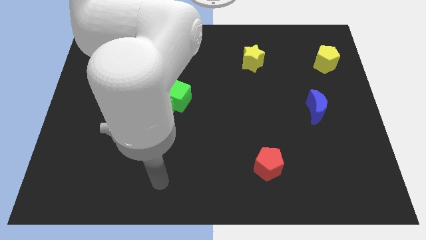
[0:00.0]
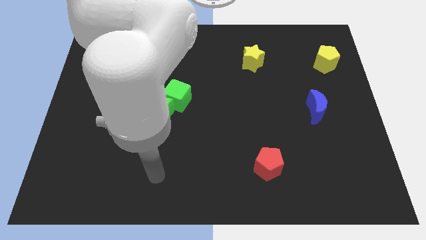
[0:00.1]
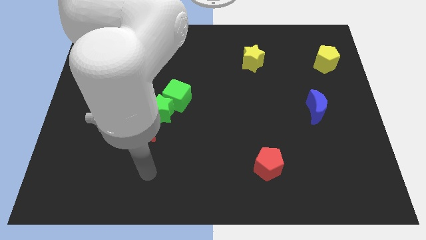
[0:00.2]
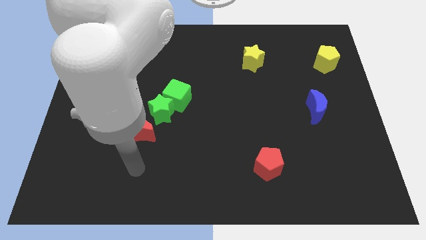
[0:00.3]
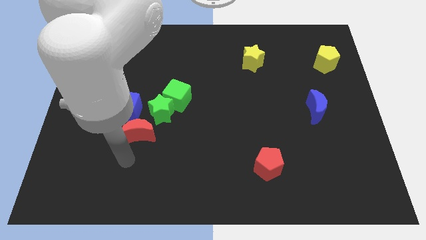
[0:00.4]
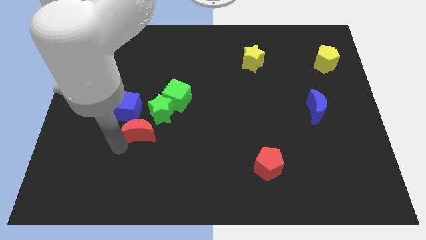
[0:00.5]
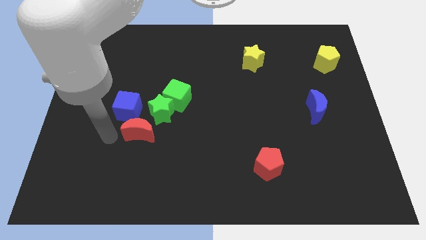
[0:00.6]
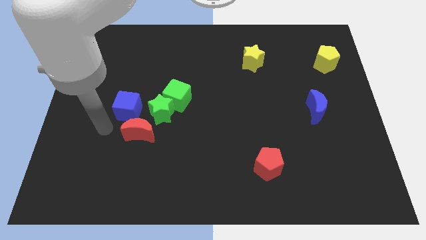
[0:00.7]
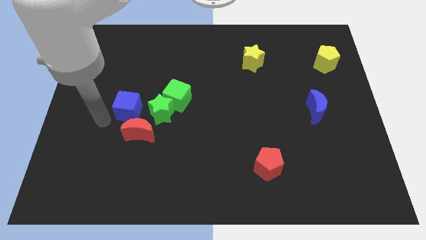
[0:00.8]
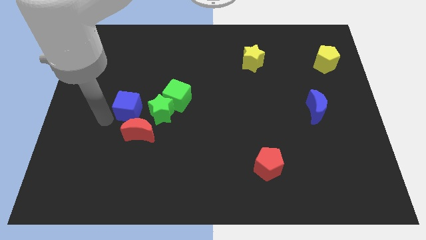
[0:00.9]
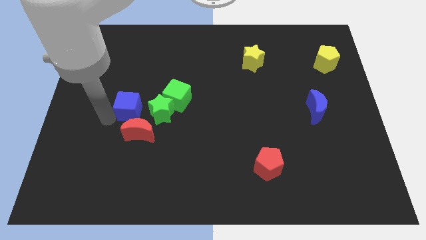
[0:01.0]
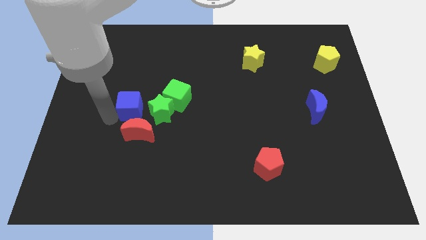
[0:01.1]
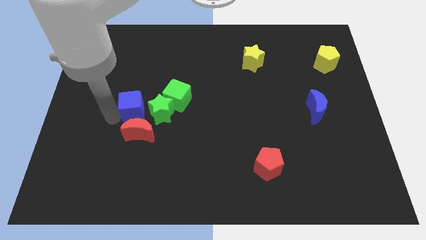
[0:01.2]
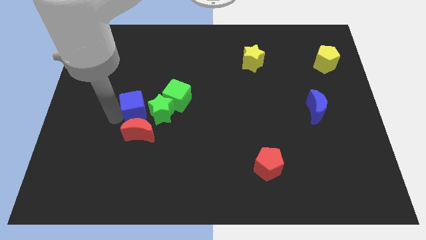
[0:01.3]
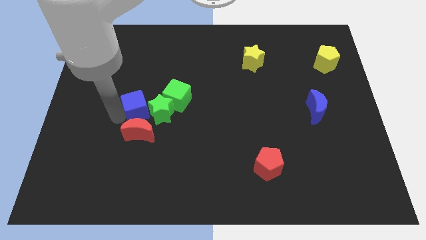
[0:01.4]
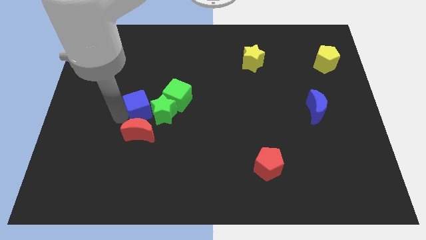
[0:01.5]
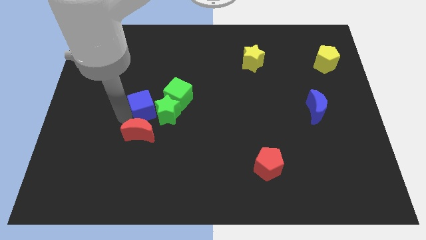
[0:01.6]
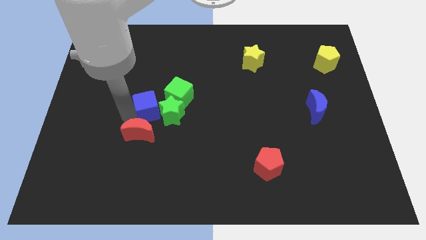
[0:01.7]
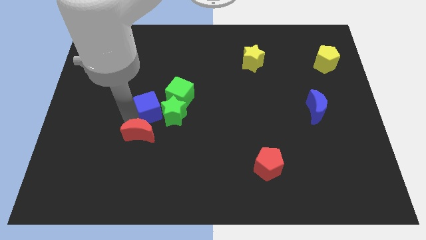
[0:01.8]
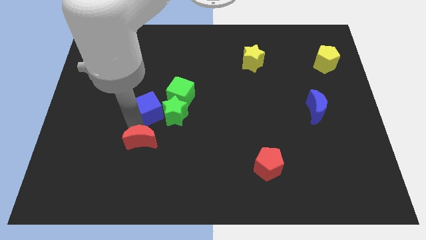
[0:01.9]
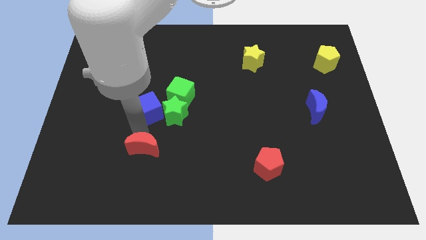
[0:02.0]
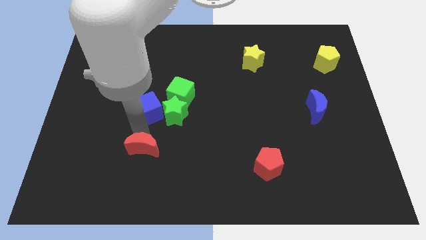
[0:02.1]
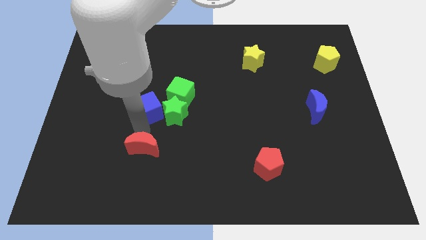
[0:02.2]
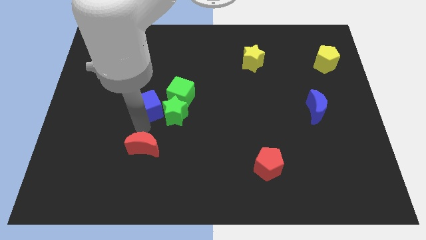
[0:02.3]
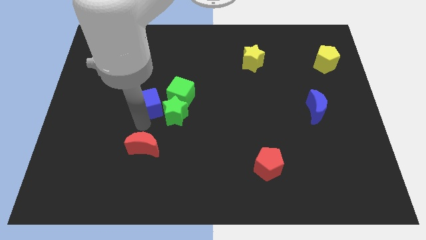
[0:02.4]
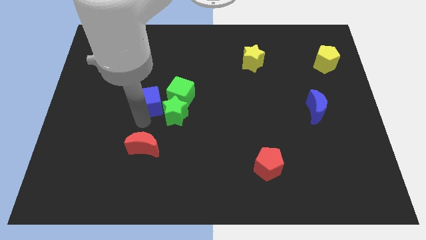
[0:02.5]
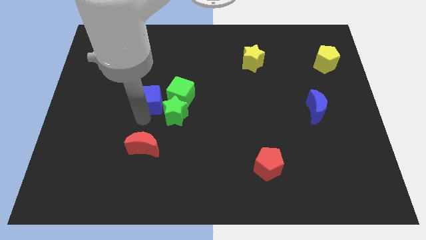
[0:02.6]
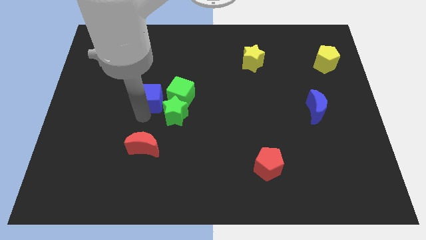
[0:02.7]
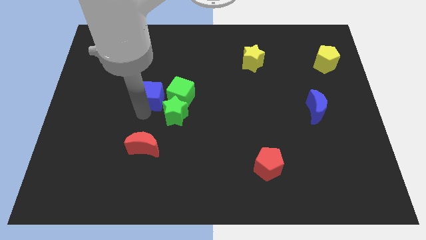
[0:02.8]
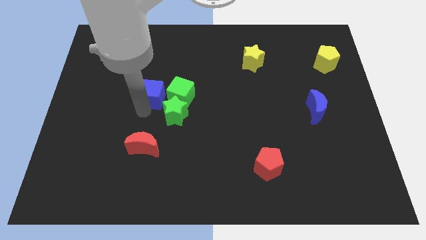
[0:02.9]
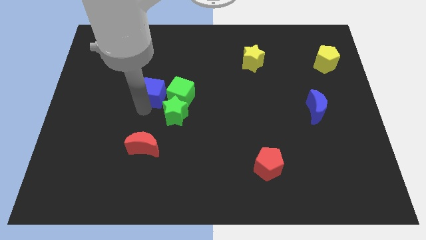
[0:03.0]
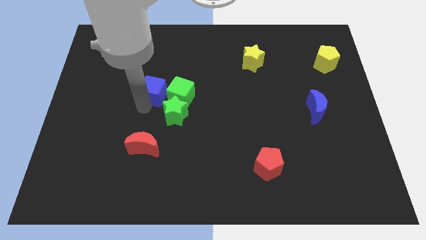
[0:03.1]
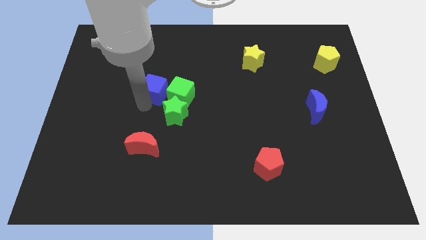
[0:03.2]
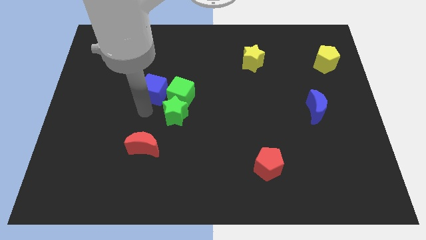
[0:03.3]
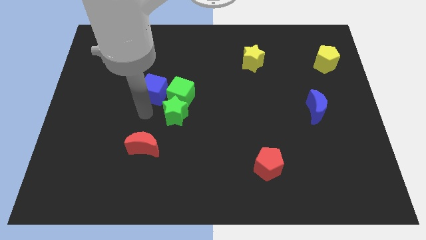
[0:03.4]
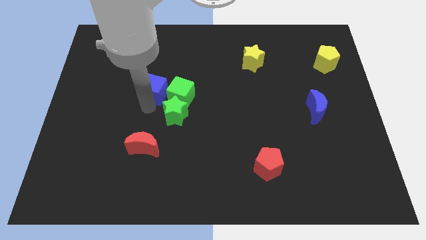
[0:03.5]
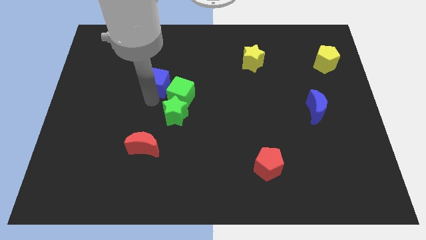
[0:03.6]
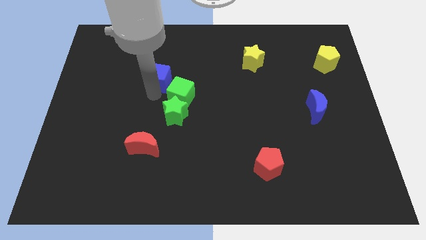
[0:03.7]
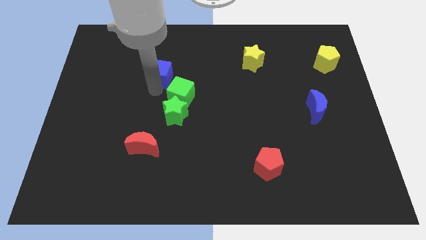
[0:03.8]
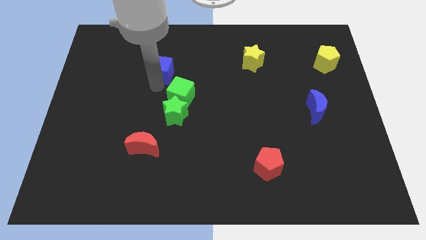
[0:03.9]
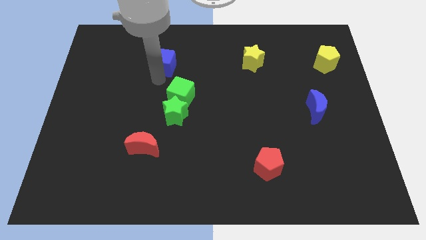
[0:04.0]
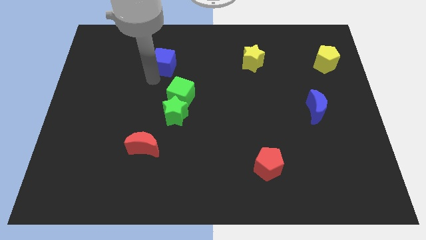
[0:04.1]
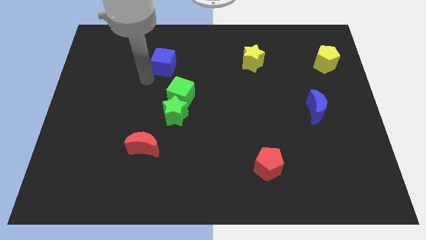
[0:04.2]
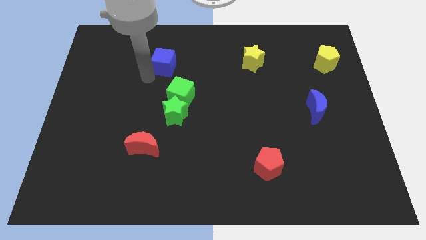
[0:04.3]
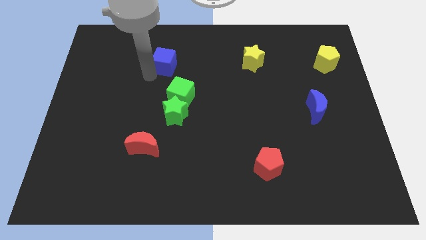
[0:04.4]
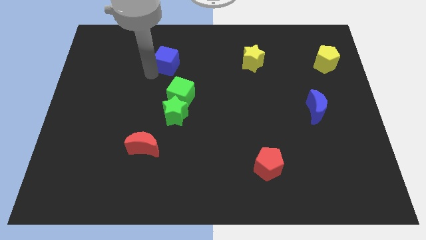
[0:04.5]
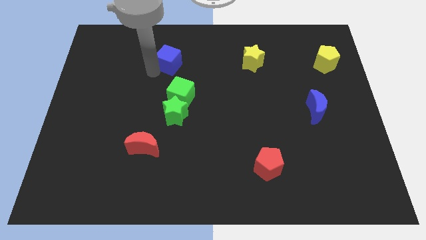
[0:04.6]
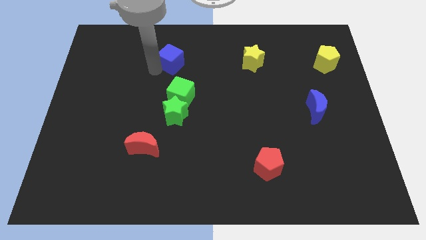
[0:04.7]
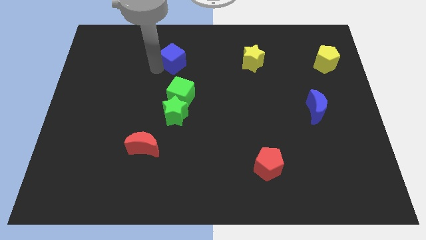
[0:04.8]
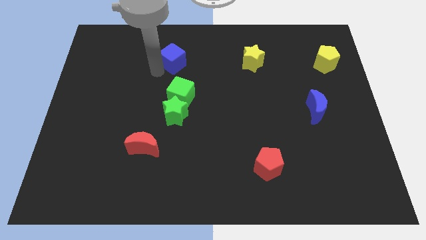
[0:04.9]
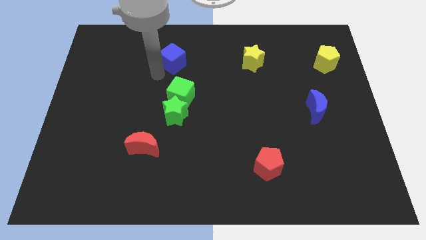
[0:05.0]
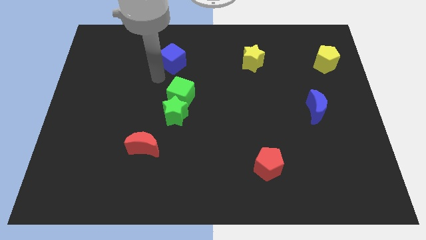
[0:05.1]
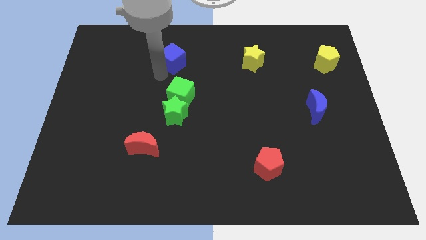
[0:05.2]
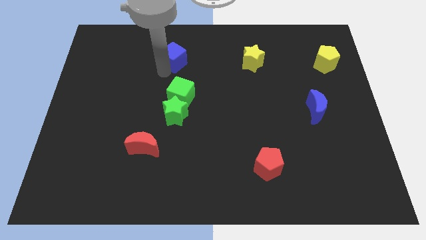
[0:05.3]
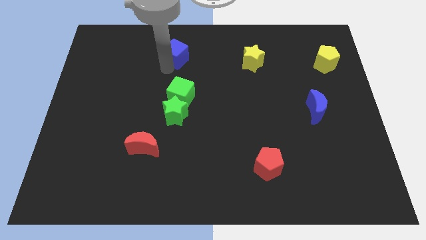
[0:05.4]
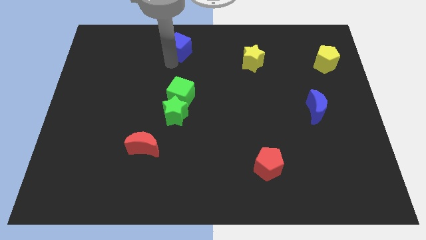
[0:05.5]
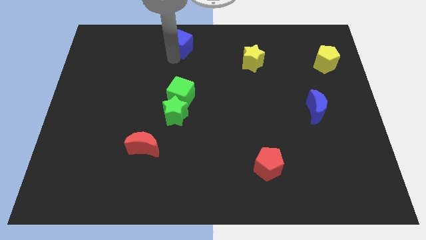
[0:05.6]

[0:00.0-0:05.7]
slide the blue cube to the towards your base
